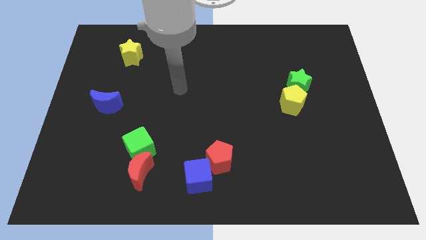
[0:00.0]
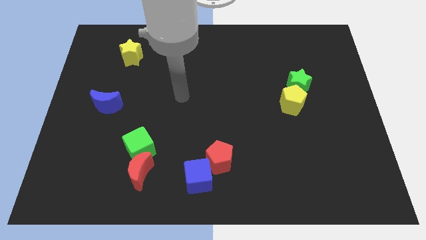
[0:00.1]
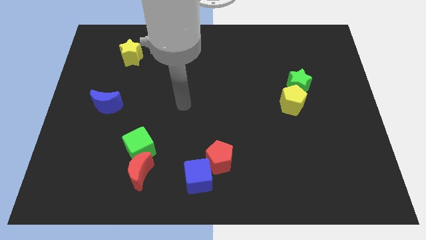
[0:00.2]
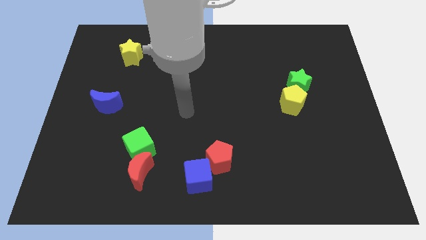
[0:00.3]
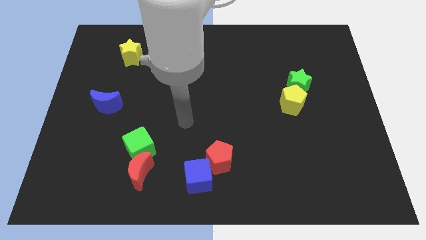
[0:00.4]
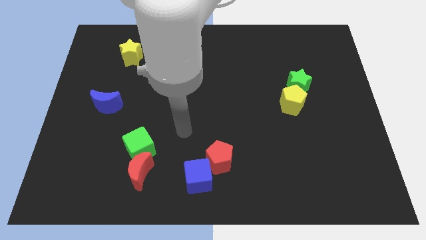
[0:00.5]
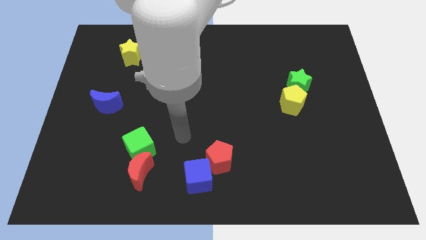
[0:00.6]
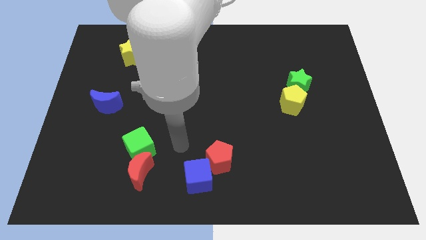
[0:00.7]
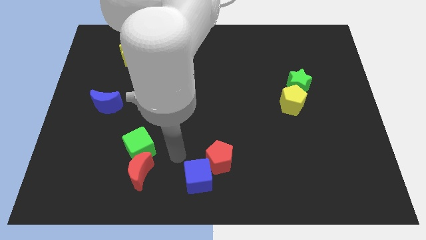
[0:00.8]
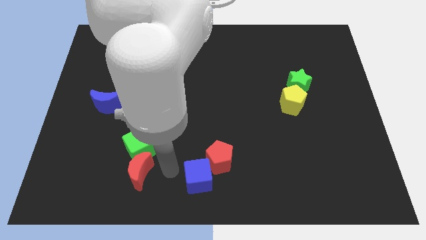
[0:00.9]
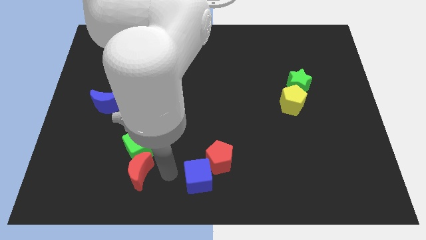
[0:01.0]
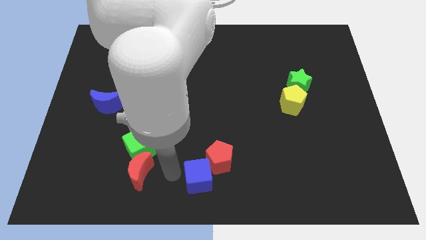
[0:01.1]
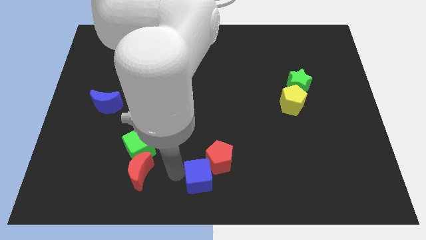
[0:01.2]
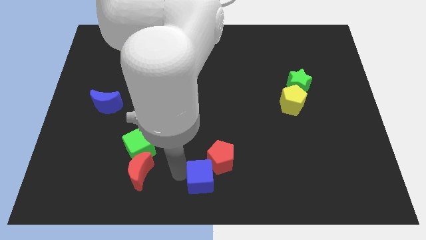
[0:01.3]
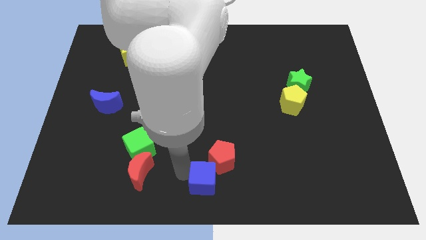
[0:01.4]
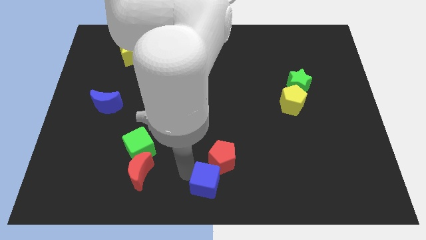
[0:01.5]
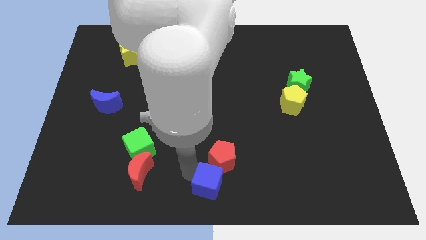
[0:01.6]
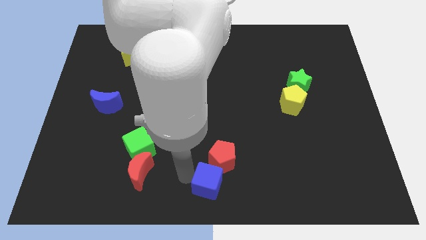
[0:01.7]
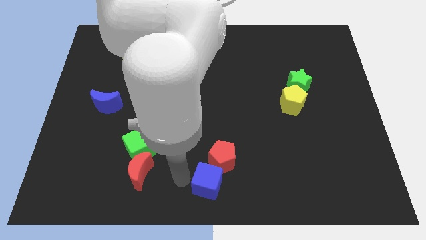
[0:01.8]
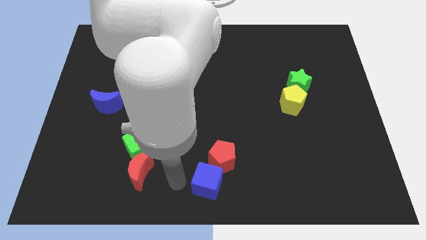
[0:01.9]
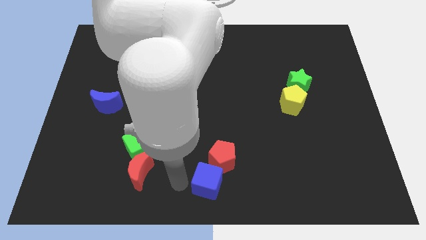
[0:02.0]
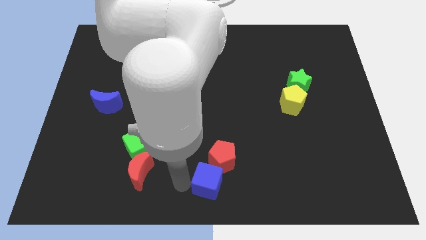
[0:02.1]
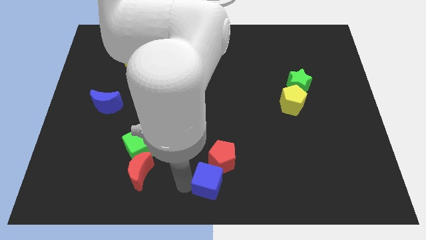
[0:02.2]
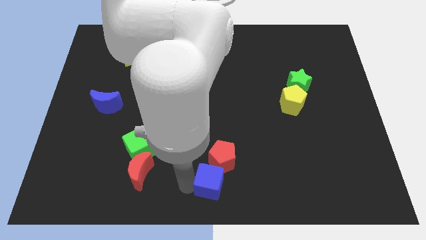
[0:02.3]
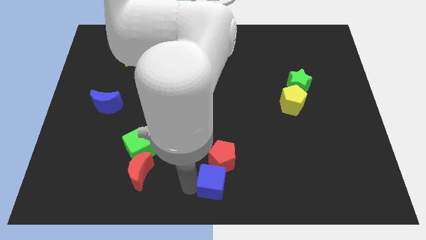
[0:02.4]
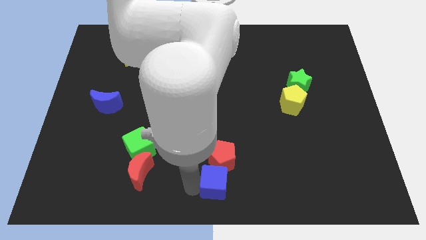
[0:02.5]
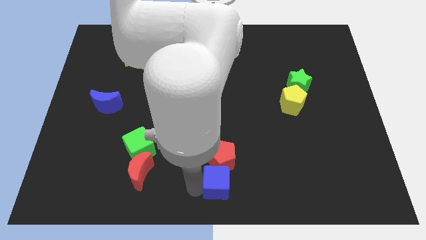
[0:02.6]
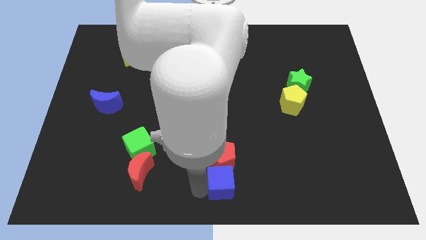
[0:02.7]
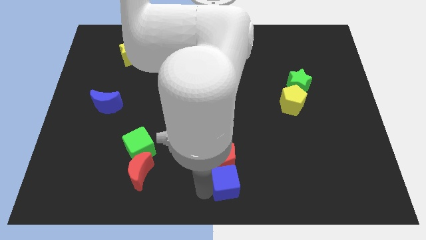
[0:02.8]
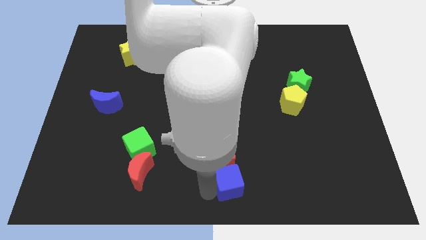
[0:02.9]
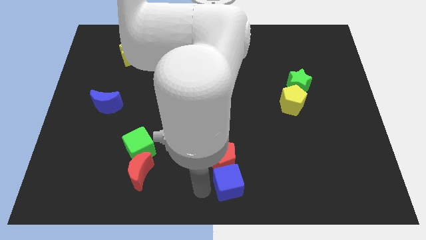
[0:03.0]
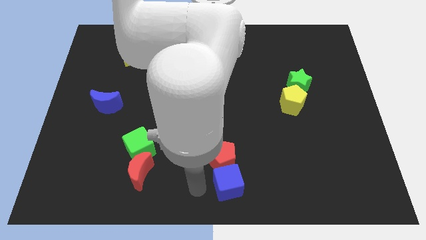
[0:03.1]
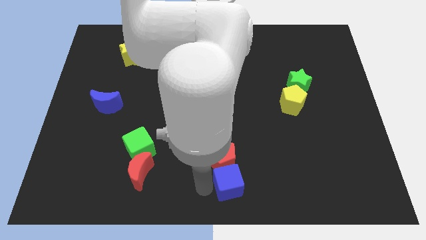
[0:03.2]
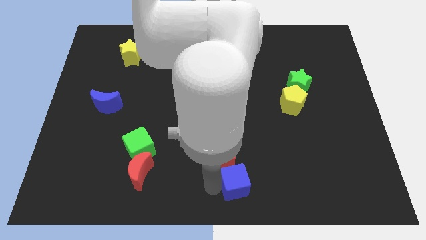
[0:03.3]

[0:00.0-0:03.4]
push the blue cube right slightly

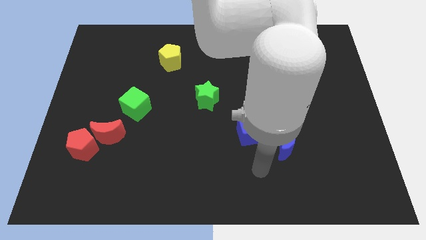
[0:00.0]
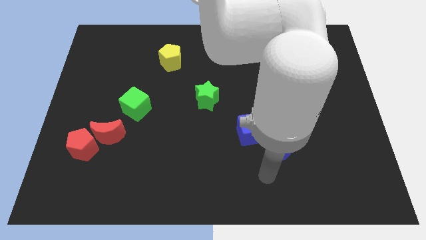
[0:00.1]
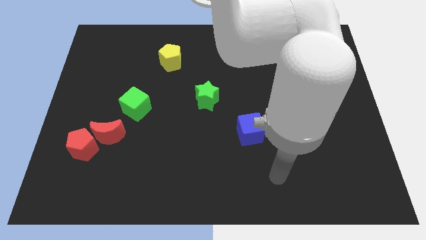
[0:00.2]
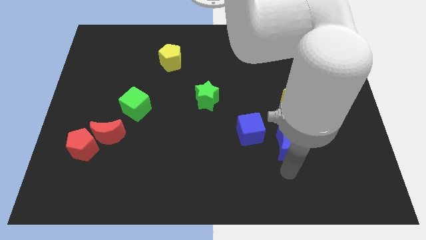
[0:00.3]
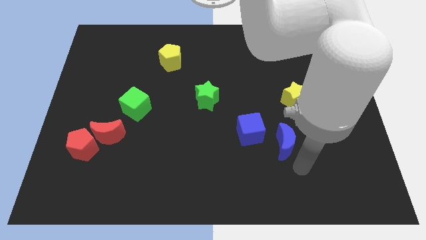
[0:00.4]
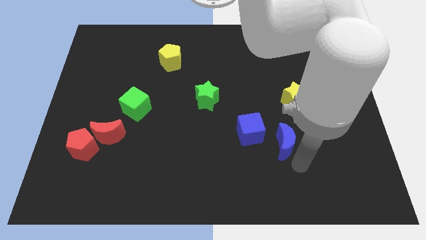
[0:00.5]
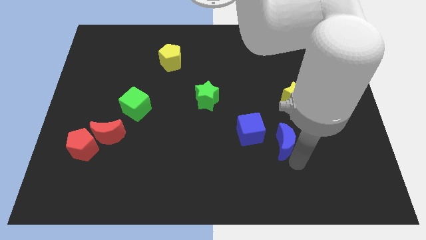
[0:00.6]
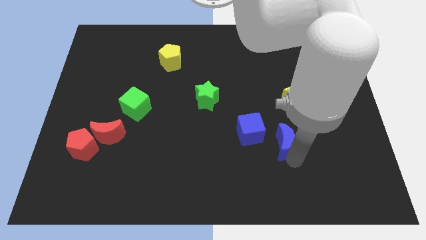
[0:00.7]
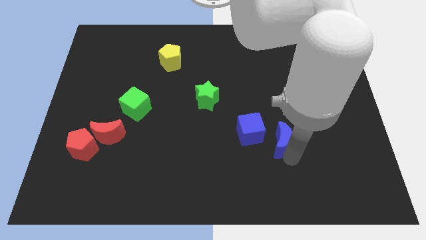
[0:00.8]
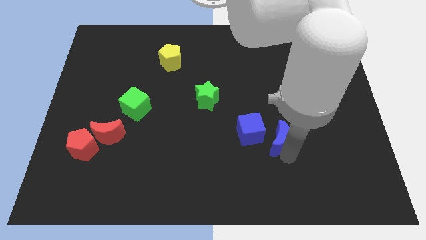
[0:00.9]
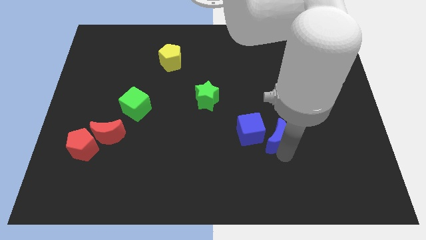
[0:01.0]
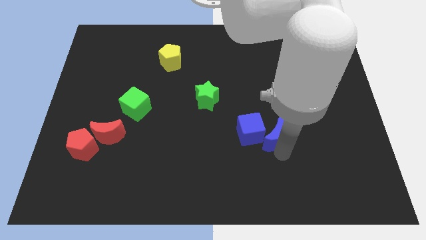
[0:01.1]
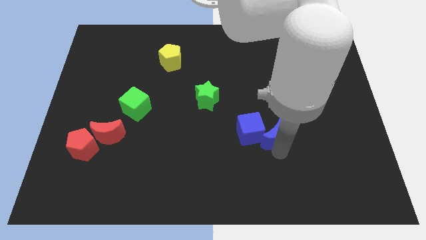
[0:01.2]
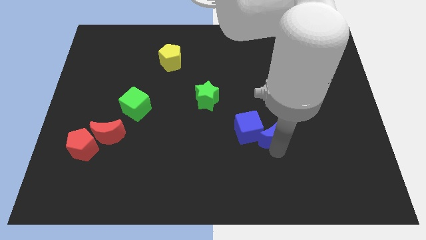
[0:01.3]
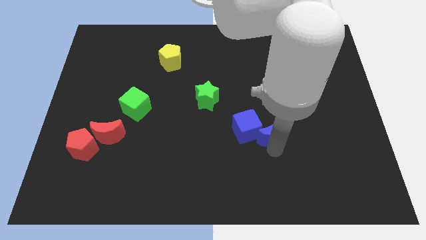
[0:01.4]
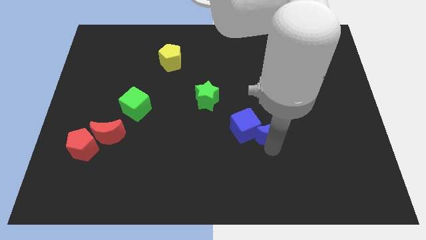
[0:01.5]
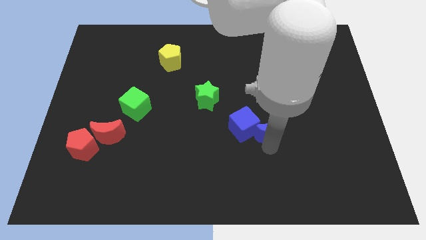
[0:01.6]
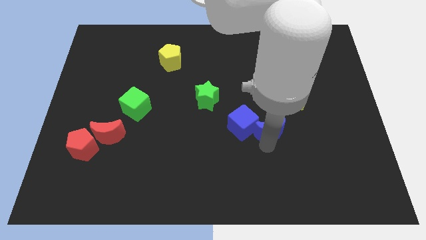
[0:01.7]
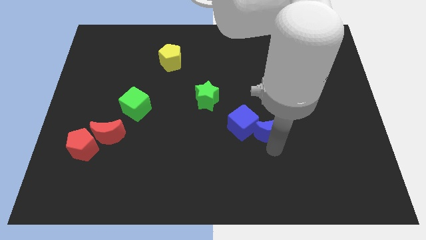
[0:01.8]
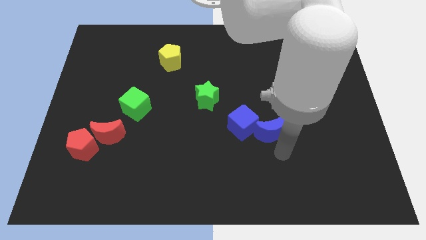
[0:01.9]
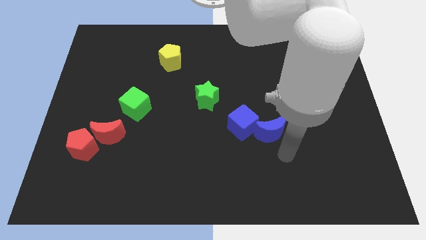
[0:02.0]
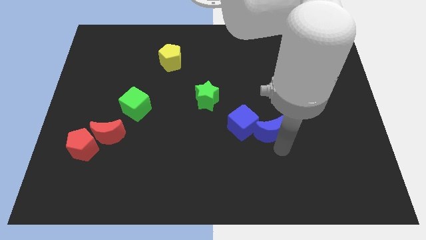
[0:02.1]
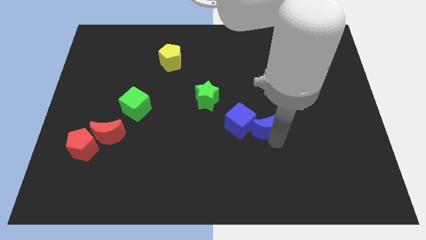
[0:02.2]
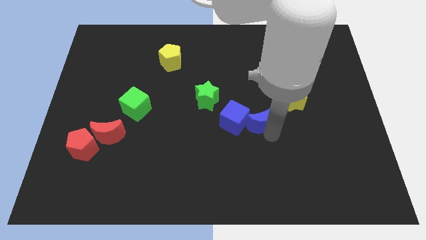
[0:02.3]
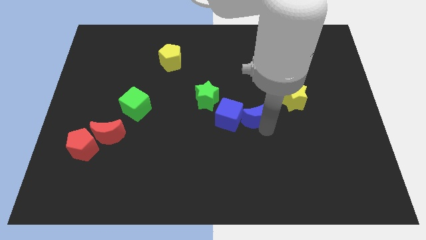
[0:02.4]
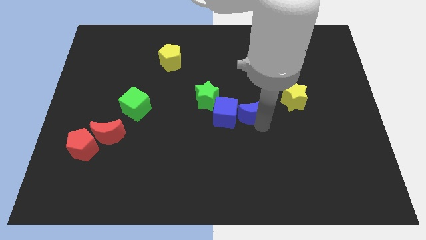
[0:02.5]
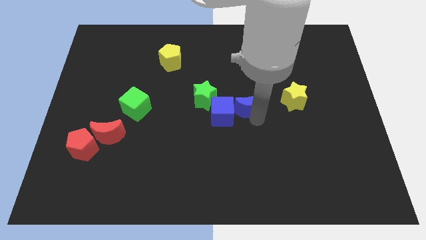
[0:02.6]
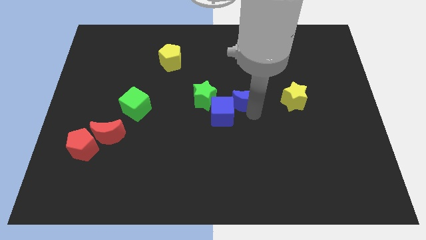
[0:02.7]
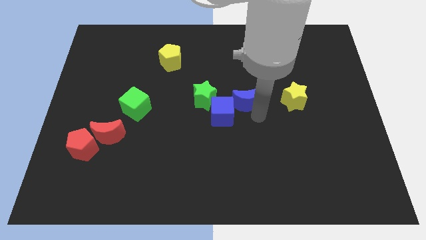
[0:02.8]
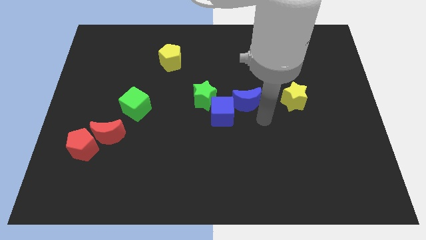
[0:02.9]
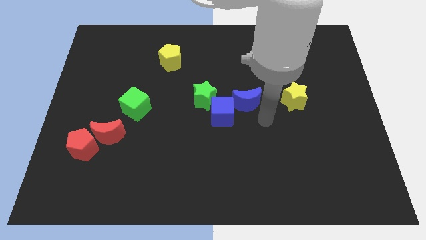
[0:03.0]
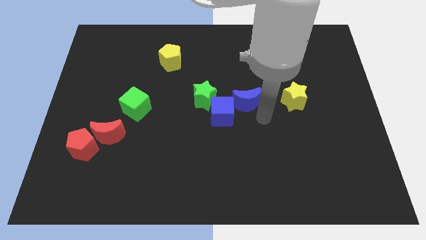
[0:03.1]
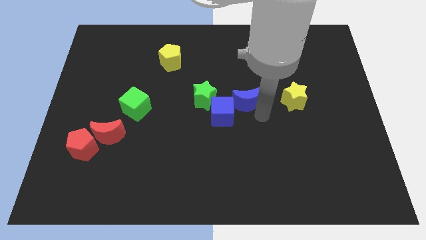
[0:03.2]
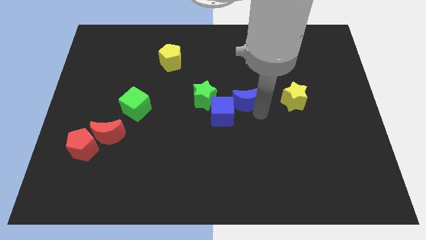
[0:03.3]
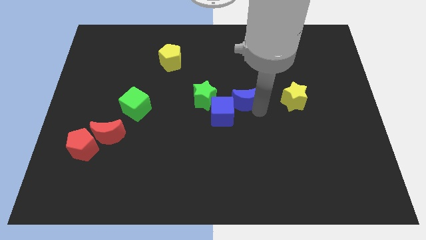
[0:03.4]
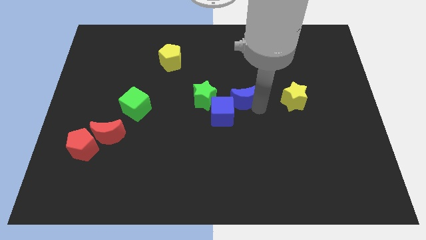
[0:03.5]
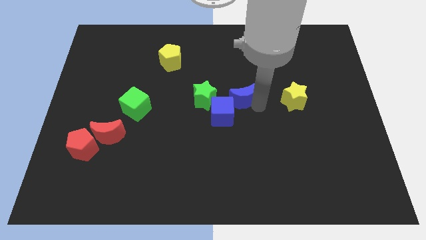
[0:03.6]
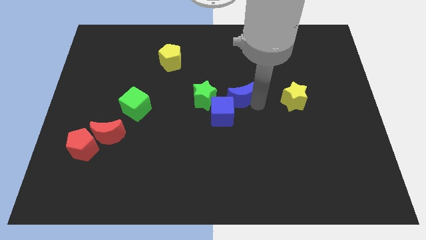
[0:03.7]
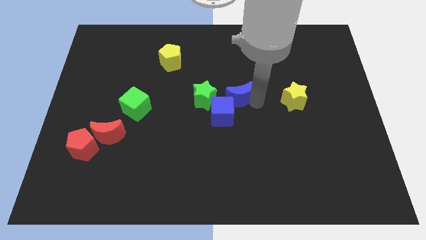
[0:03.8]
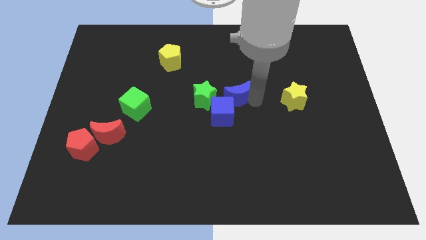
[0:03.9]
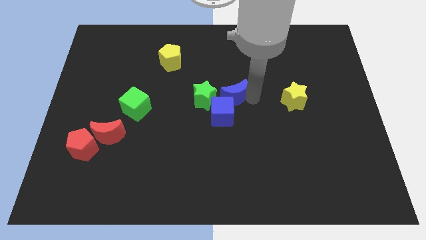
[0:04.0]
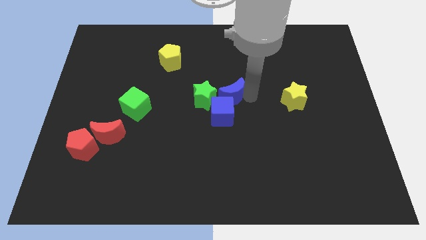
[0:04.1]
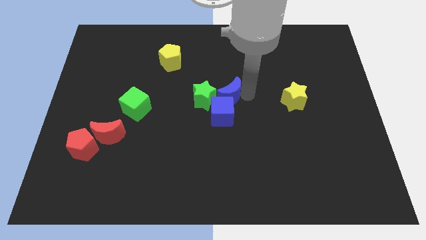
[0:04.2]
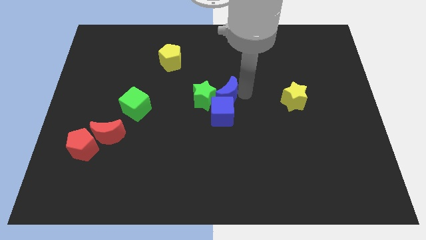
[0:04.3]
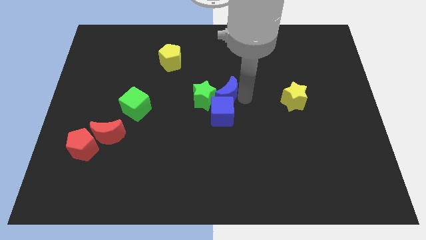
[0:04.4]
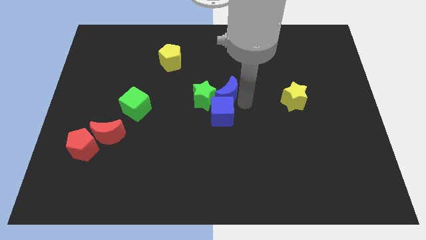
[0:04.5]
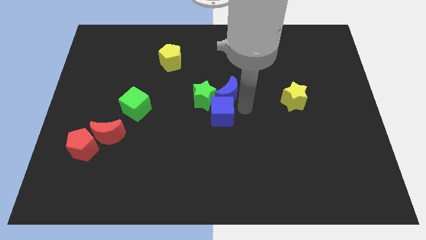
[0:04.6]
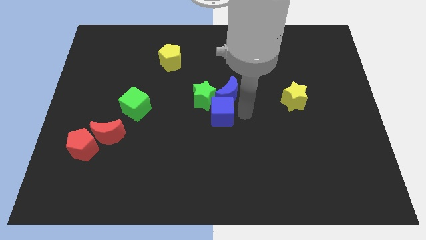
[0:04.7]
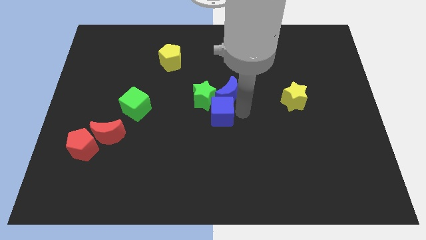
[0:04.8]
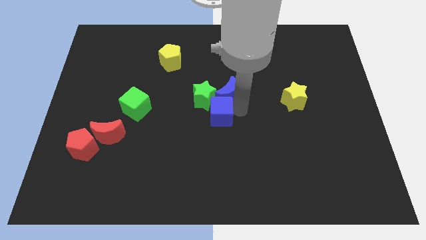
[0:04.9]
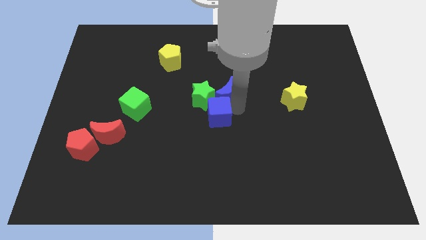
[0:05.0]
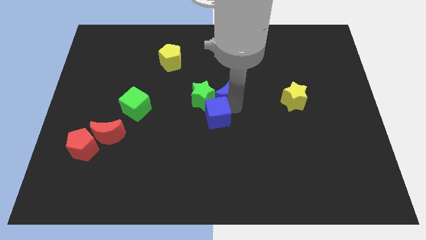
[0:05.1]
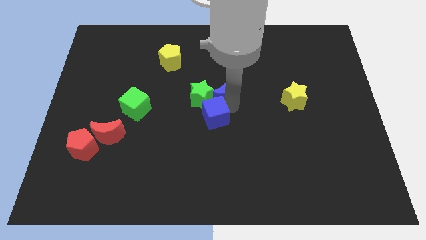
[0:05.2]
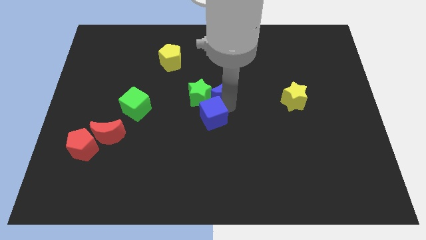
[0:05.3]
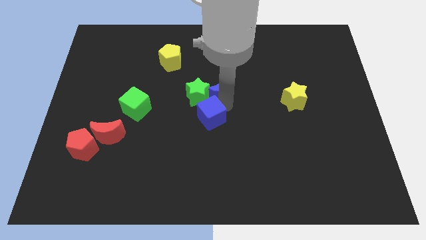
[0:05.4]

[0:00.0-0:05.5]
slide the blue moon upwards and left
